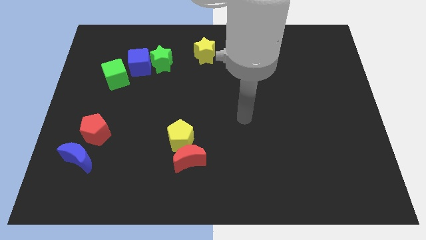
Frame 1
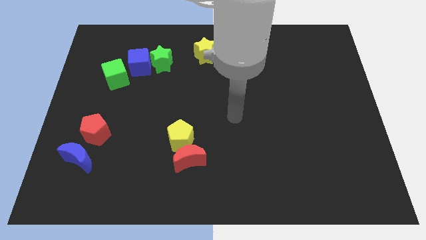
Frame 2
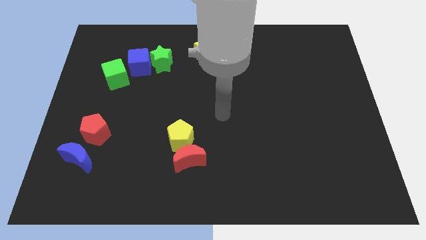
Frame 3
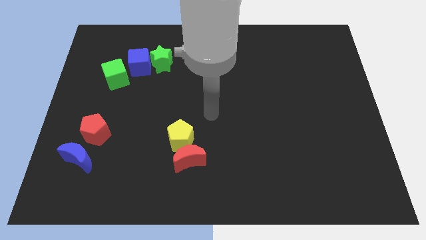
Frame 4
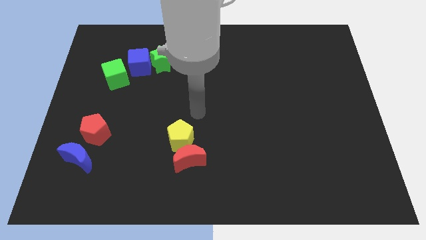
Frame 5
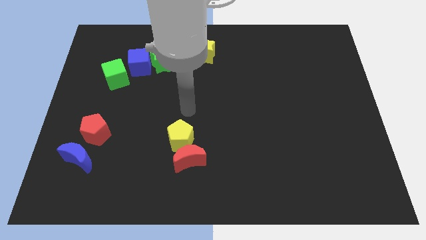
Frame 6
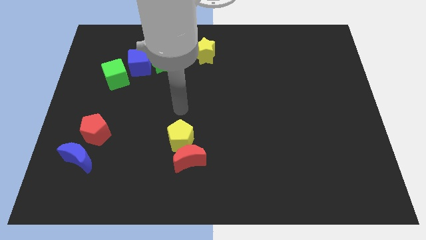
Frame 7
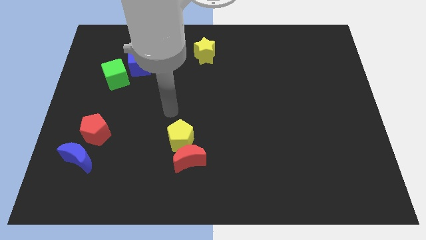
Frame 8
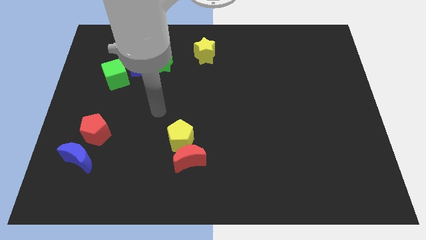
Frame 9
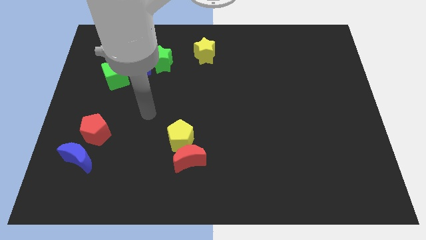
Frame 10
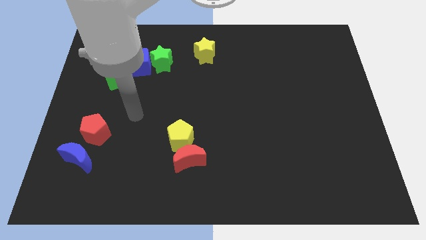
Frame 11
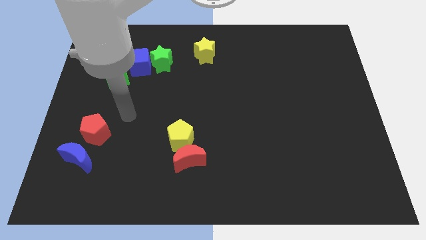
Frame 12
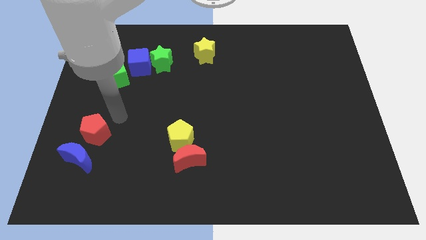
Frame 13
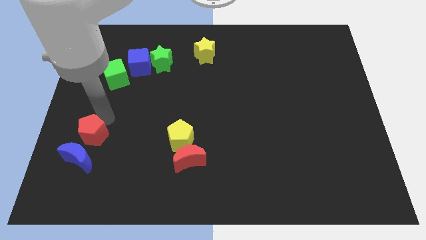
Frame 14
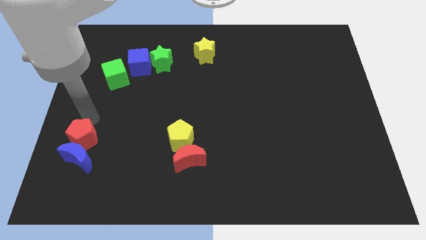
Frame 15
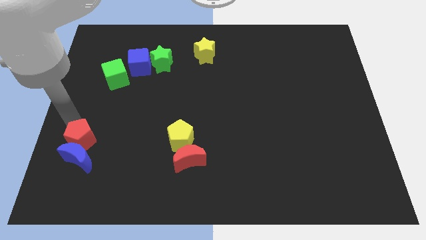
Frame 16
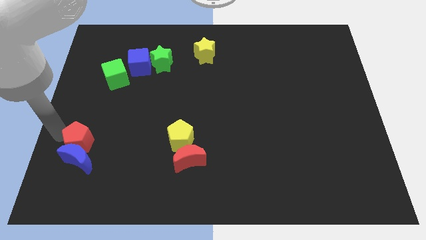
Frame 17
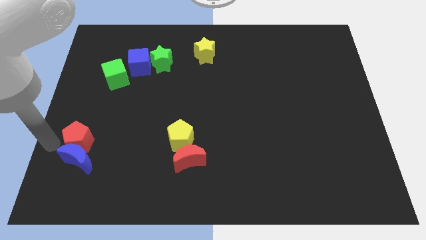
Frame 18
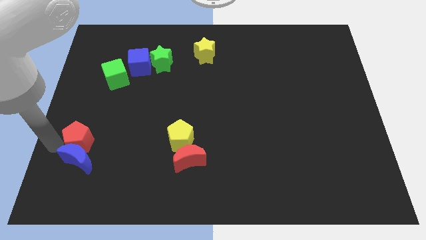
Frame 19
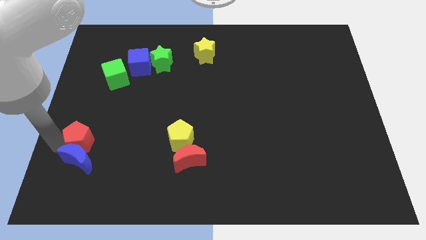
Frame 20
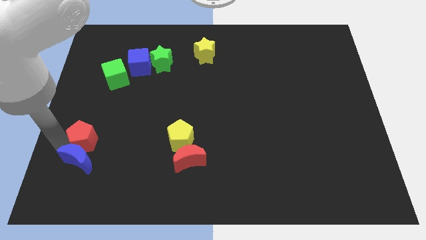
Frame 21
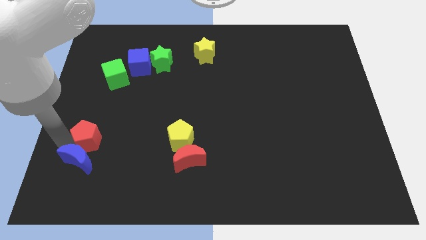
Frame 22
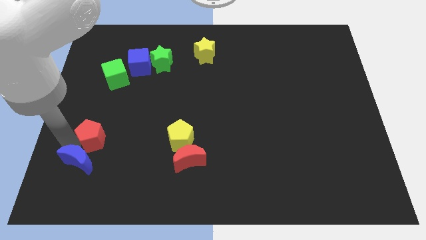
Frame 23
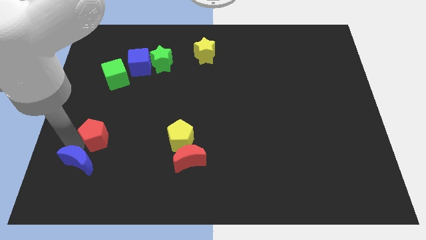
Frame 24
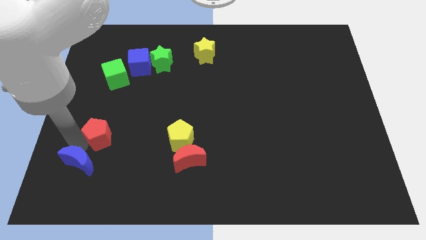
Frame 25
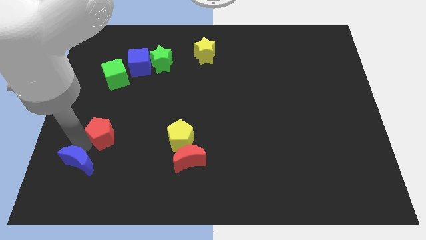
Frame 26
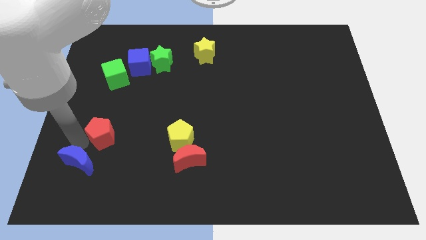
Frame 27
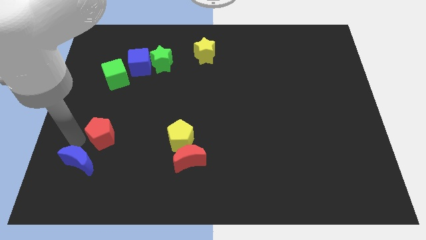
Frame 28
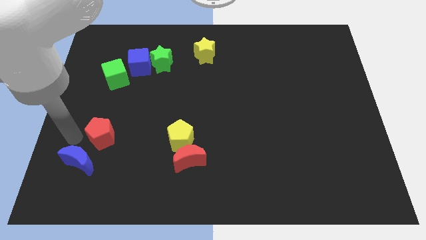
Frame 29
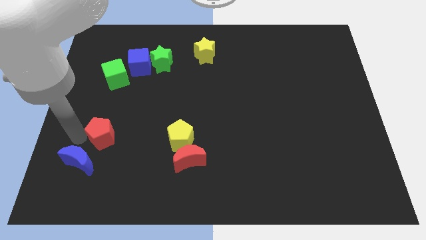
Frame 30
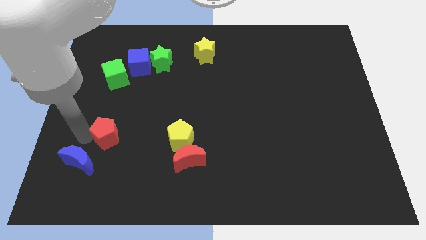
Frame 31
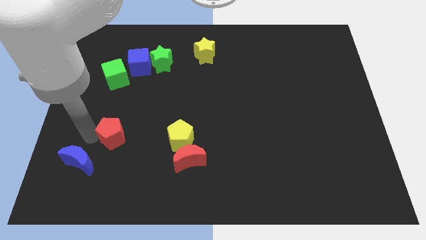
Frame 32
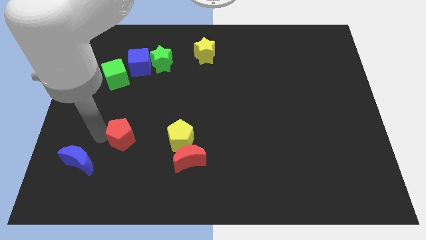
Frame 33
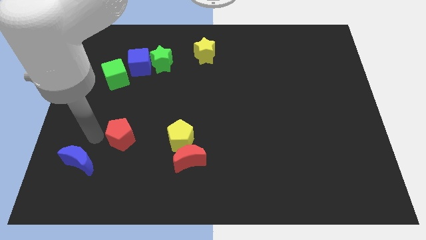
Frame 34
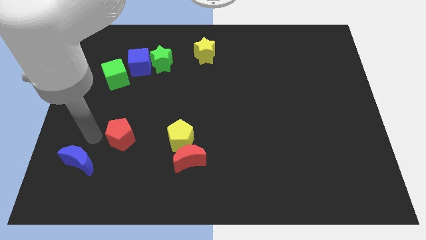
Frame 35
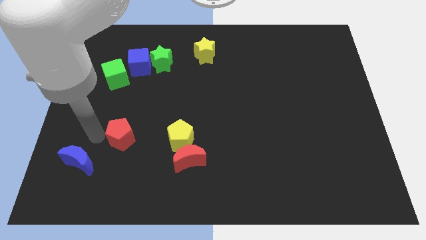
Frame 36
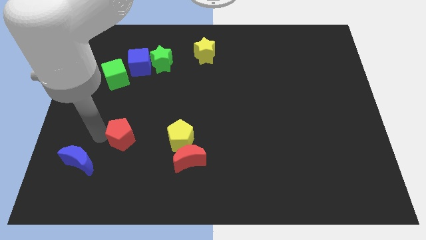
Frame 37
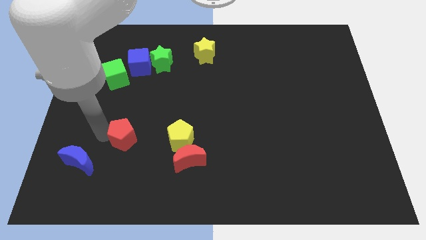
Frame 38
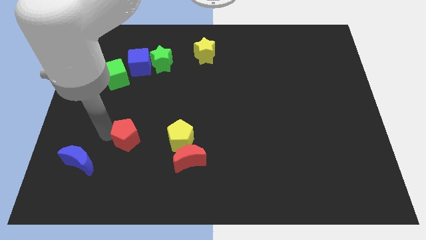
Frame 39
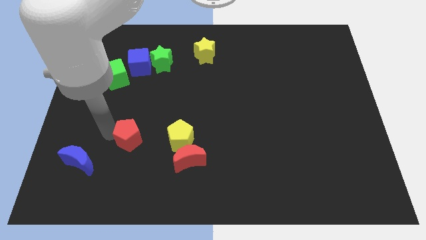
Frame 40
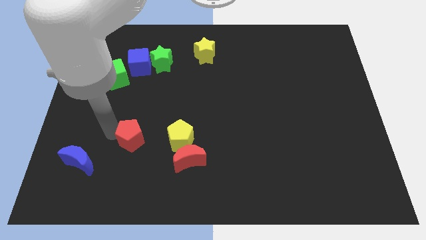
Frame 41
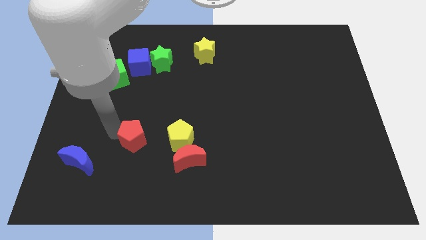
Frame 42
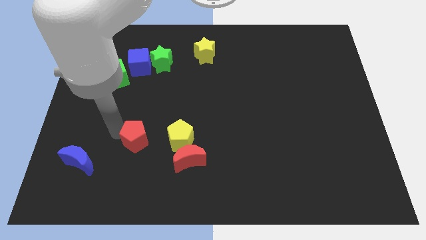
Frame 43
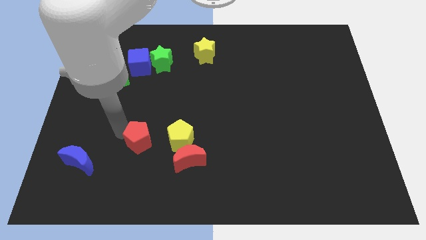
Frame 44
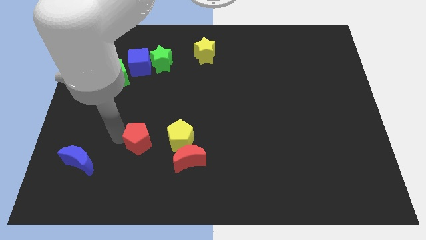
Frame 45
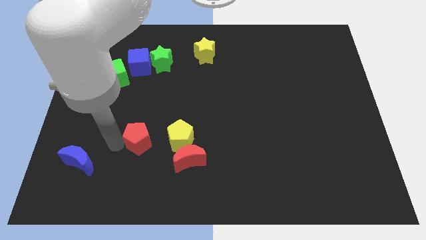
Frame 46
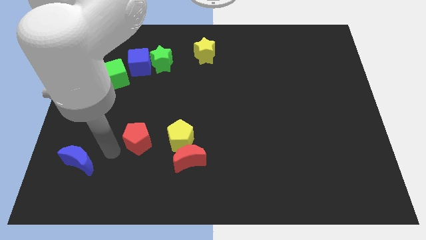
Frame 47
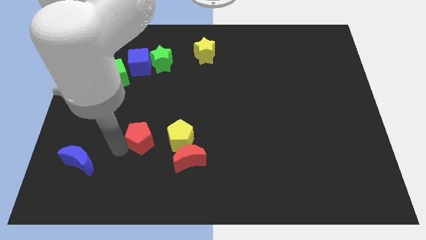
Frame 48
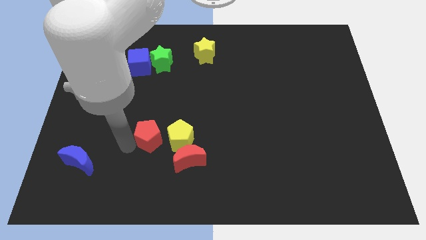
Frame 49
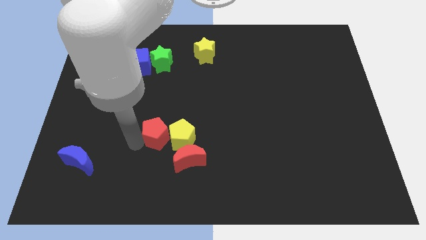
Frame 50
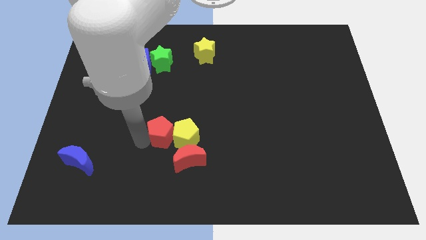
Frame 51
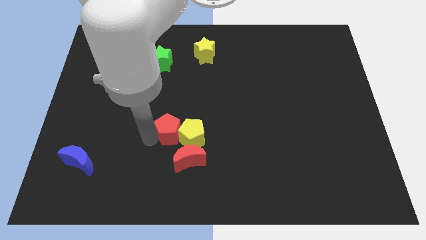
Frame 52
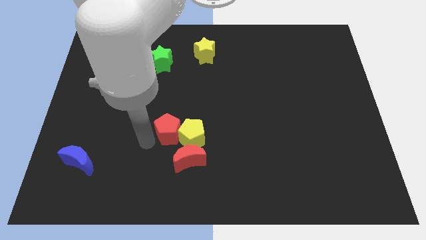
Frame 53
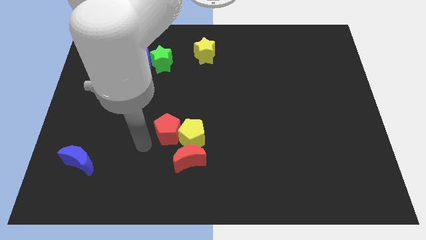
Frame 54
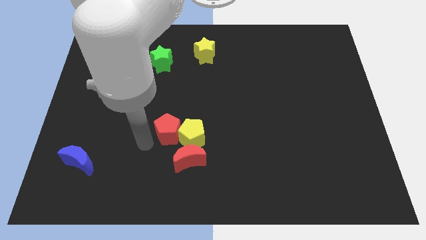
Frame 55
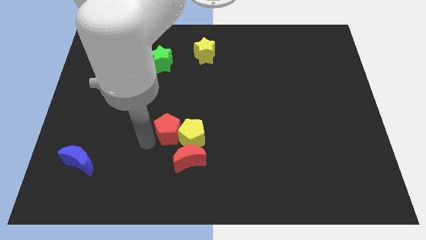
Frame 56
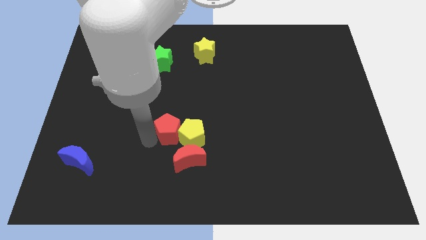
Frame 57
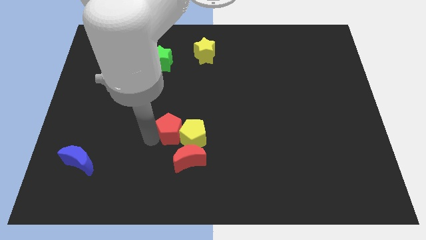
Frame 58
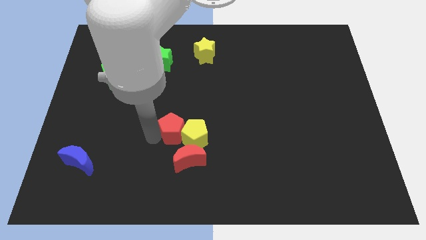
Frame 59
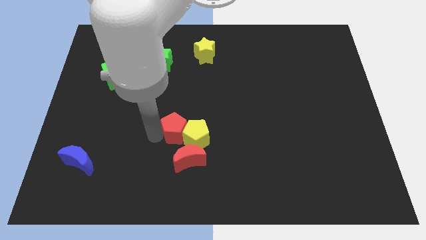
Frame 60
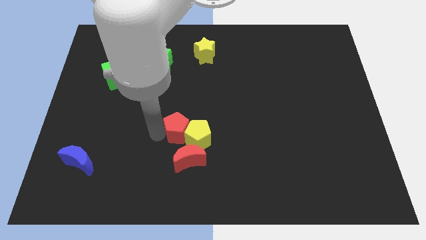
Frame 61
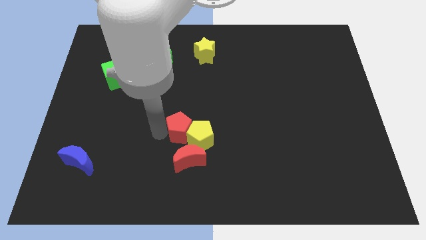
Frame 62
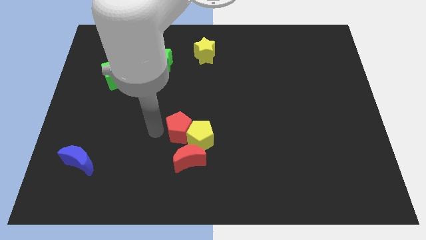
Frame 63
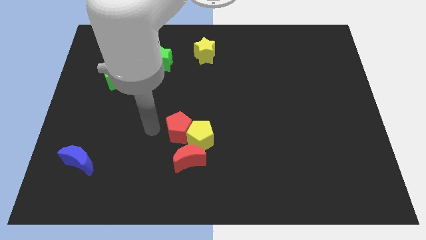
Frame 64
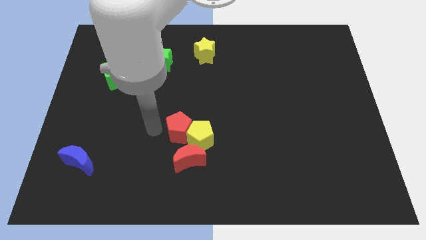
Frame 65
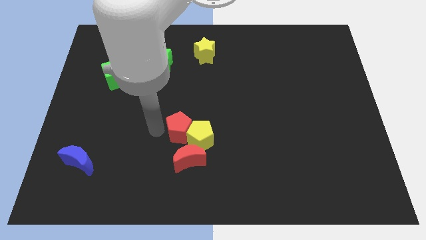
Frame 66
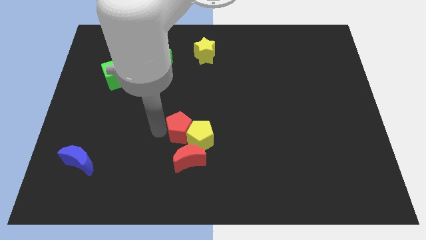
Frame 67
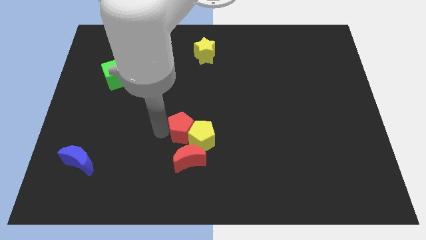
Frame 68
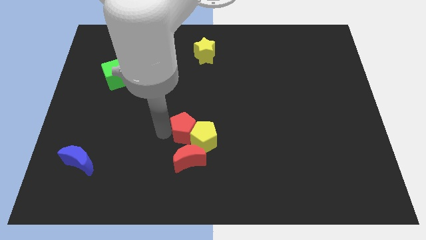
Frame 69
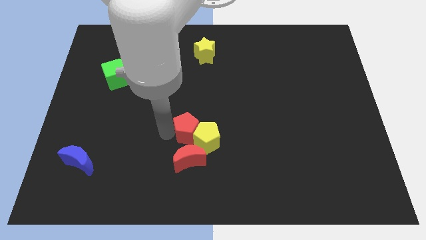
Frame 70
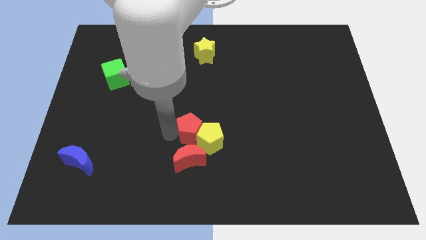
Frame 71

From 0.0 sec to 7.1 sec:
push the red pentagon to the top right side of the red moon
